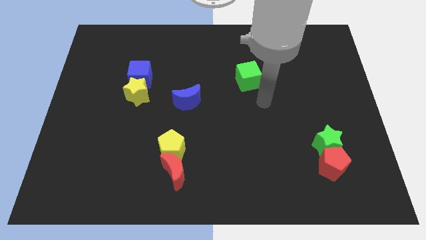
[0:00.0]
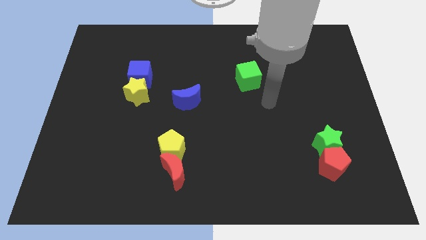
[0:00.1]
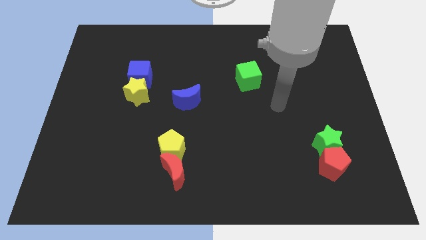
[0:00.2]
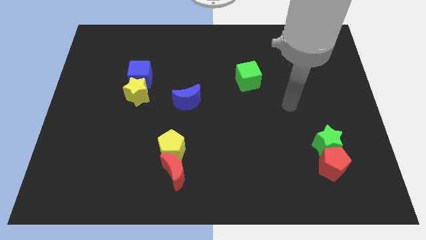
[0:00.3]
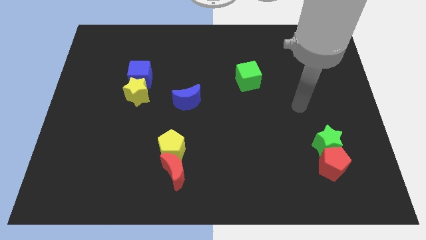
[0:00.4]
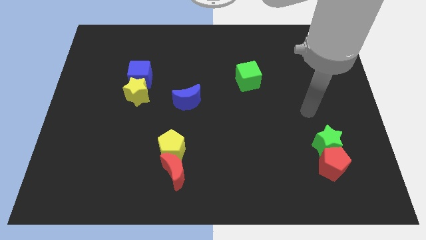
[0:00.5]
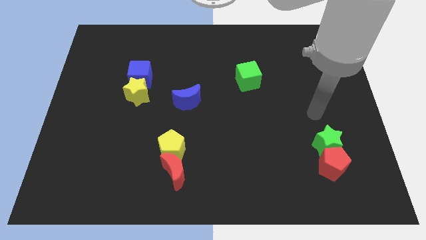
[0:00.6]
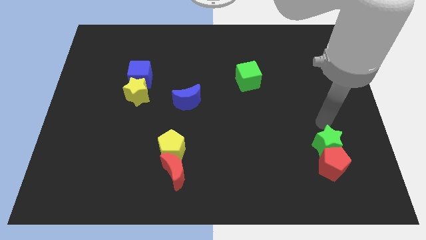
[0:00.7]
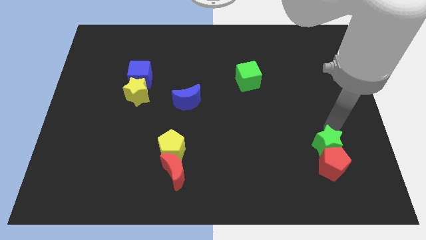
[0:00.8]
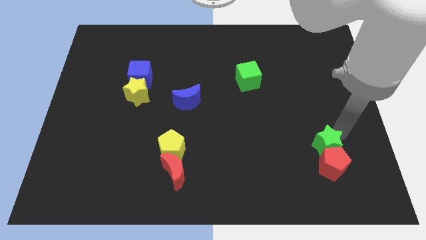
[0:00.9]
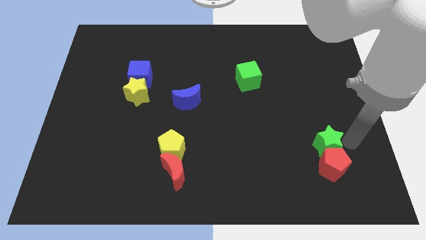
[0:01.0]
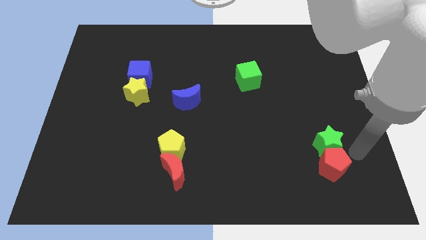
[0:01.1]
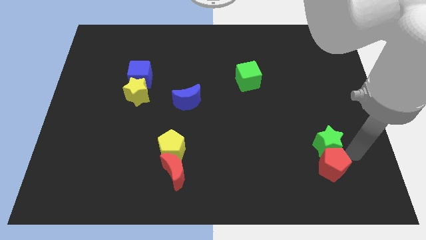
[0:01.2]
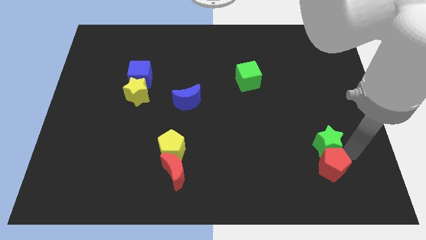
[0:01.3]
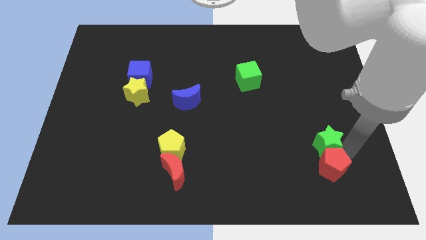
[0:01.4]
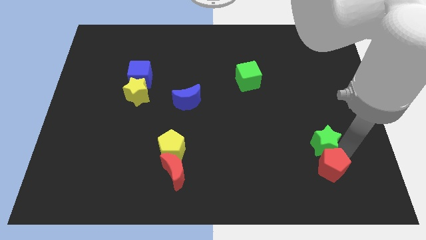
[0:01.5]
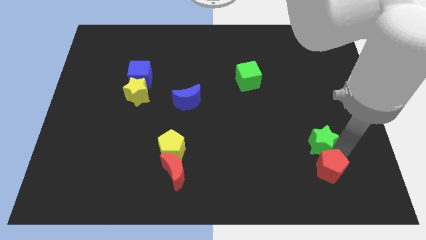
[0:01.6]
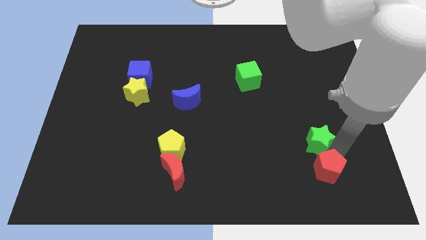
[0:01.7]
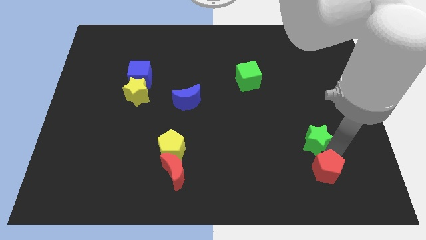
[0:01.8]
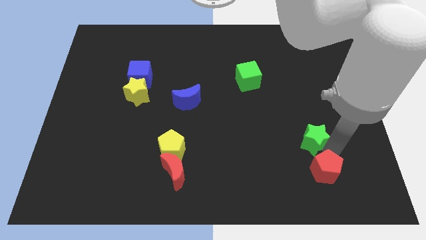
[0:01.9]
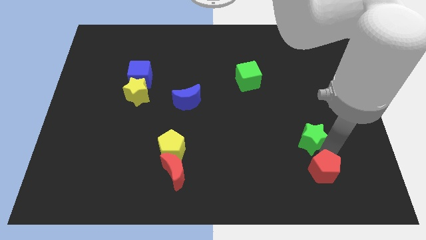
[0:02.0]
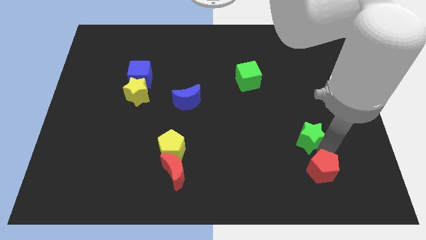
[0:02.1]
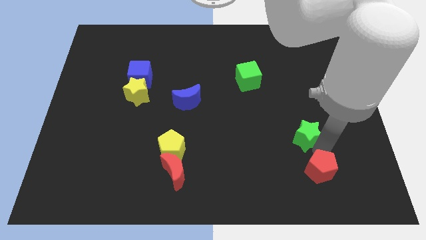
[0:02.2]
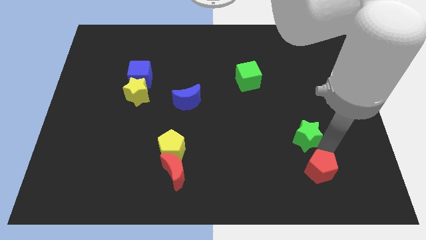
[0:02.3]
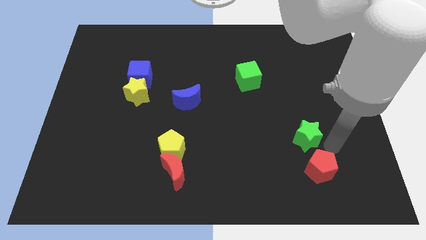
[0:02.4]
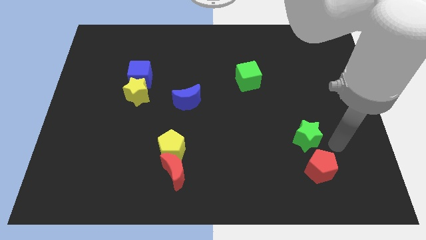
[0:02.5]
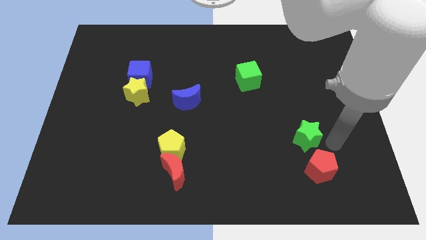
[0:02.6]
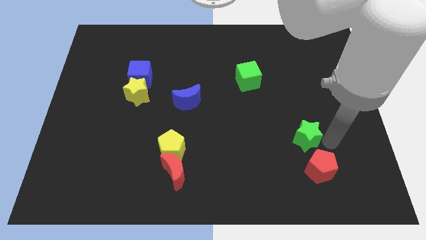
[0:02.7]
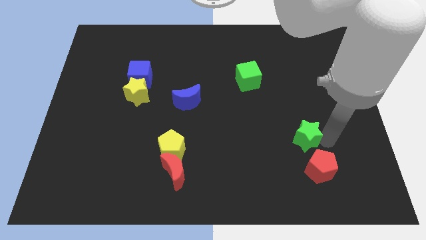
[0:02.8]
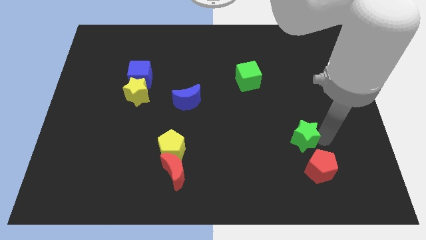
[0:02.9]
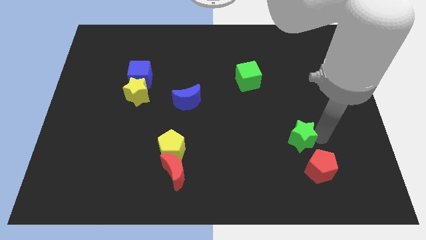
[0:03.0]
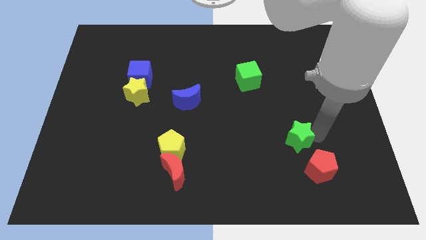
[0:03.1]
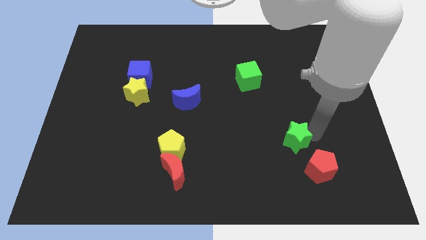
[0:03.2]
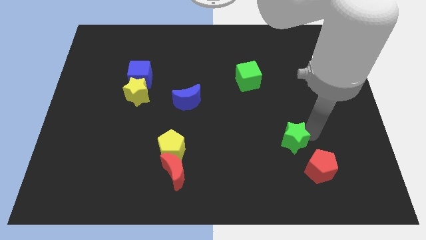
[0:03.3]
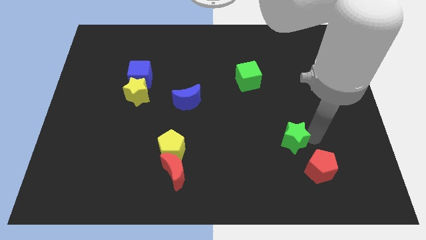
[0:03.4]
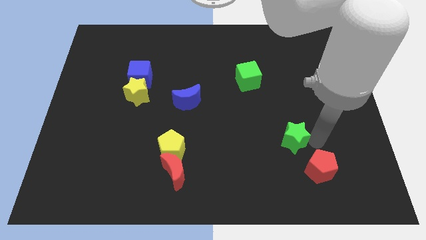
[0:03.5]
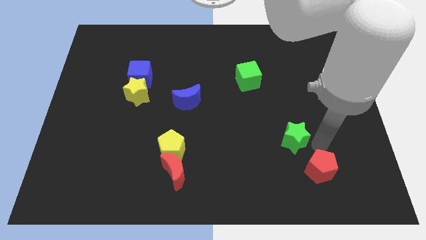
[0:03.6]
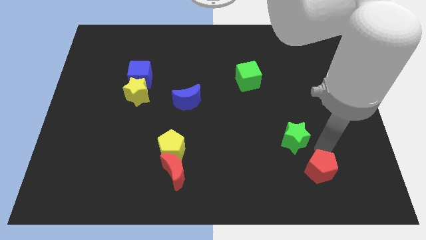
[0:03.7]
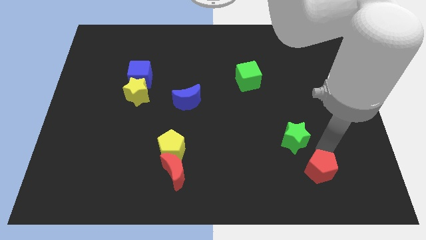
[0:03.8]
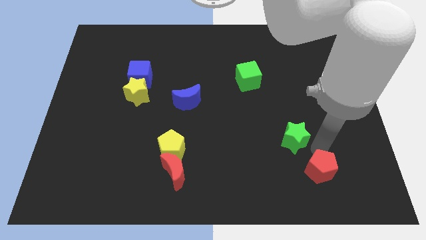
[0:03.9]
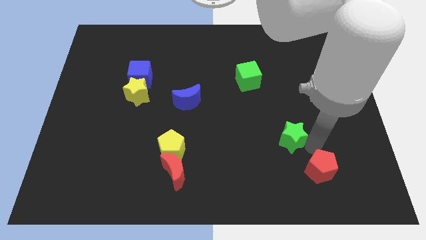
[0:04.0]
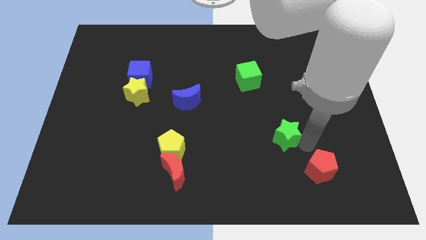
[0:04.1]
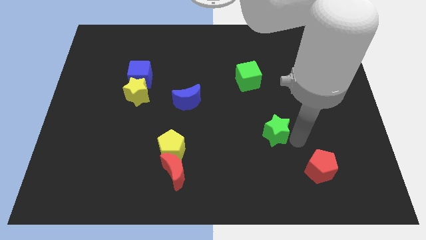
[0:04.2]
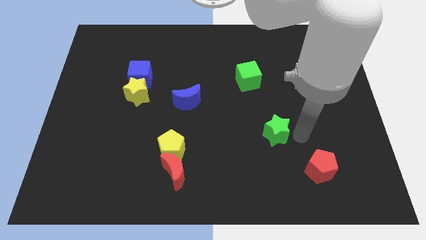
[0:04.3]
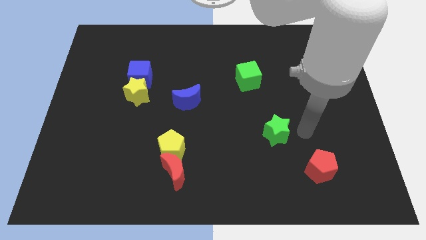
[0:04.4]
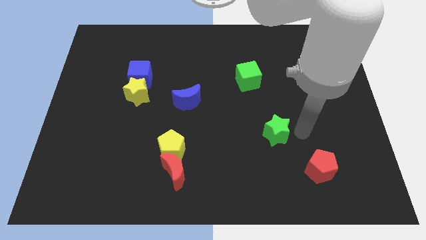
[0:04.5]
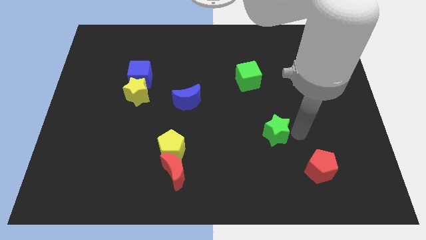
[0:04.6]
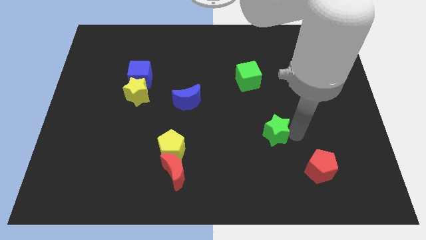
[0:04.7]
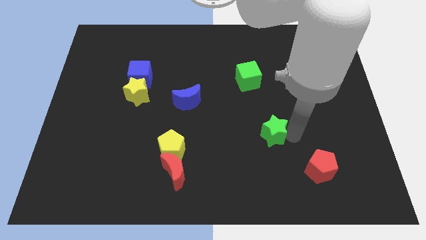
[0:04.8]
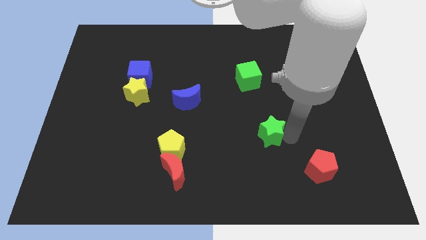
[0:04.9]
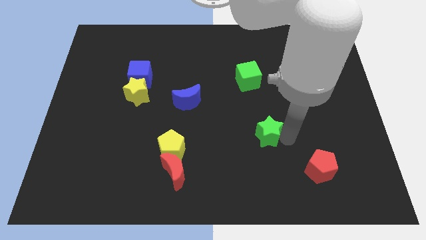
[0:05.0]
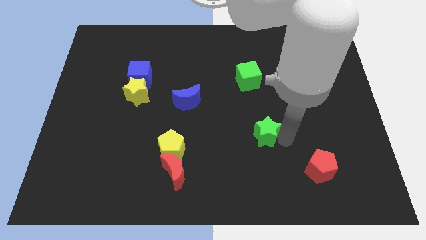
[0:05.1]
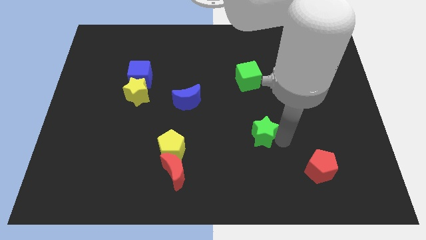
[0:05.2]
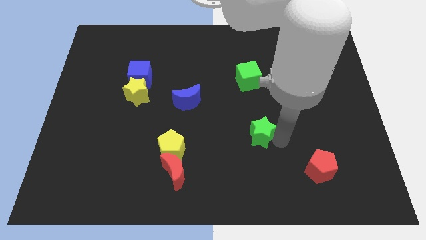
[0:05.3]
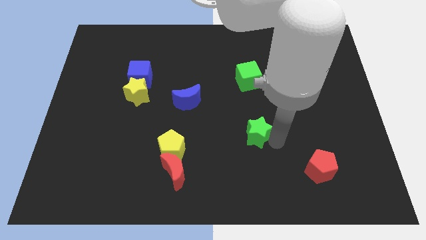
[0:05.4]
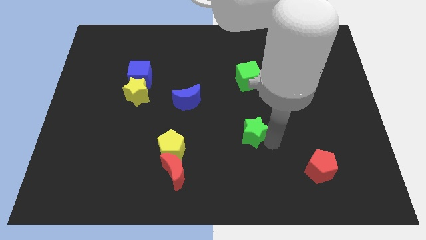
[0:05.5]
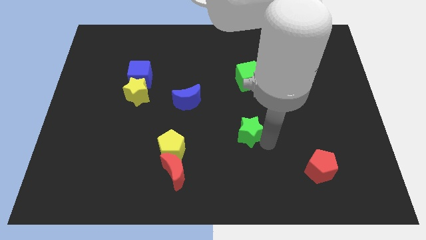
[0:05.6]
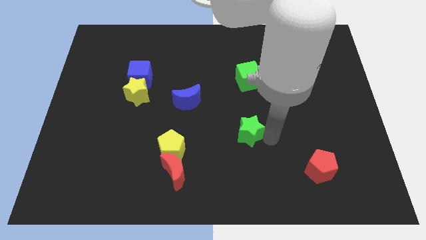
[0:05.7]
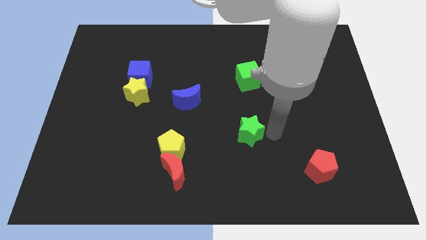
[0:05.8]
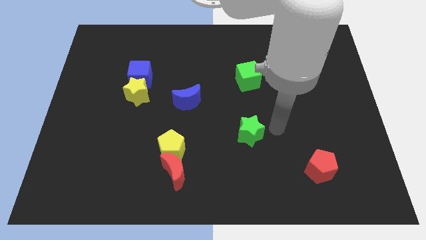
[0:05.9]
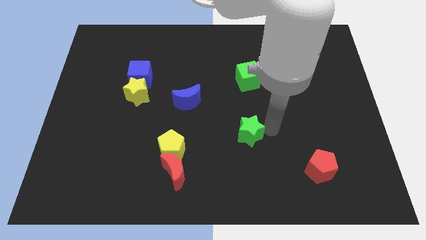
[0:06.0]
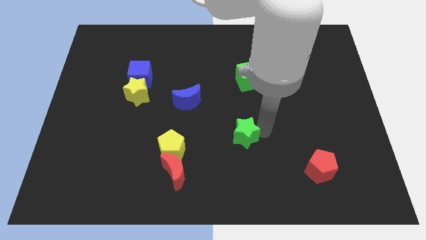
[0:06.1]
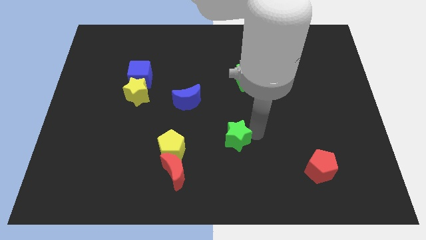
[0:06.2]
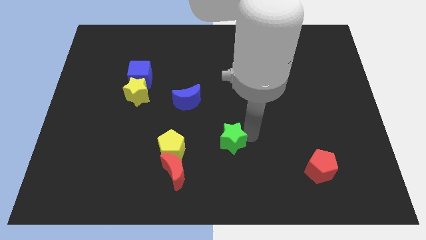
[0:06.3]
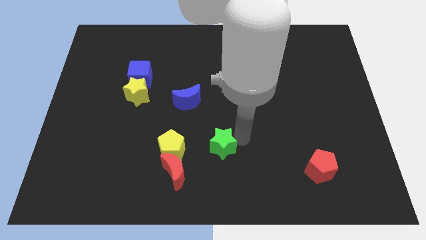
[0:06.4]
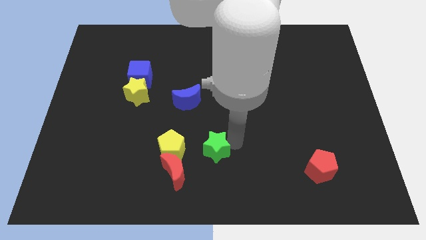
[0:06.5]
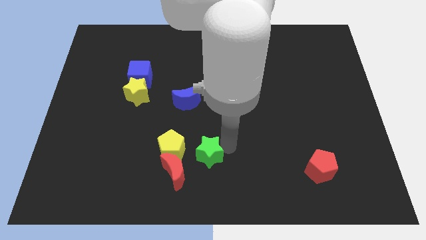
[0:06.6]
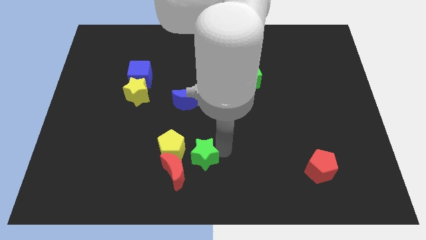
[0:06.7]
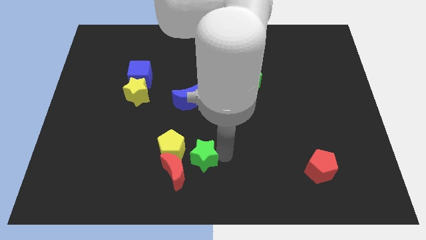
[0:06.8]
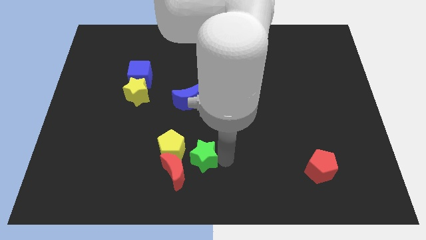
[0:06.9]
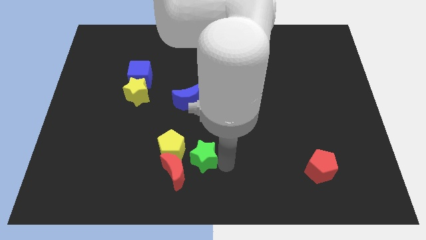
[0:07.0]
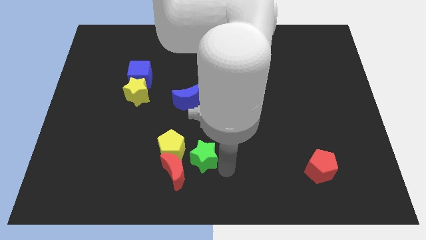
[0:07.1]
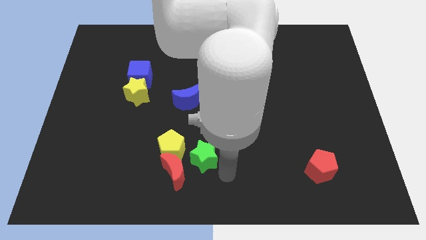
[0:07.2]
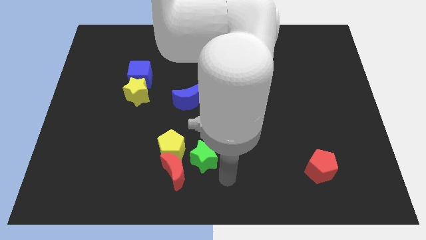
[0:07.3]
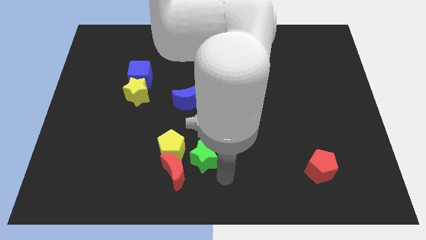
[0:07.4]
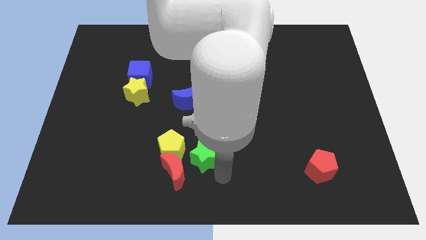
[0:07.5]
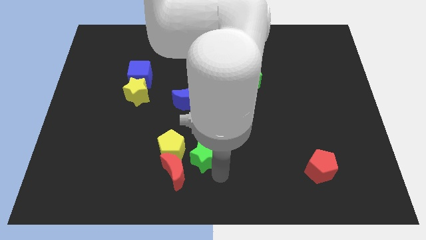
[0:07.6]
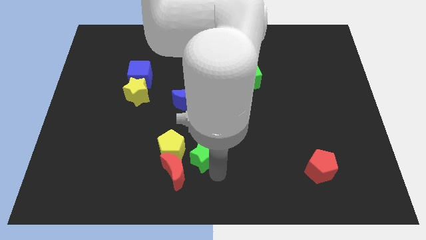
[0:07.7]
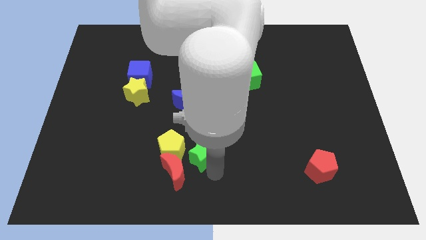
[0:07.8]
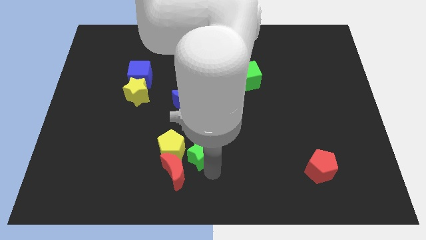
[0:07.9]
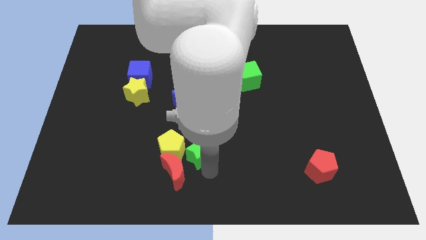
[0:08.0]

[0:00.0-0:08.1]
slide the green star next to the yellow pentagon
